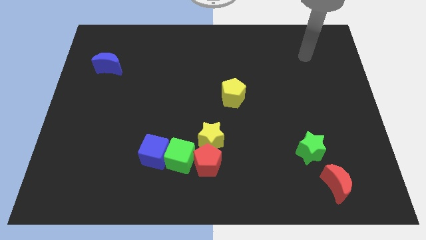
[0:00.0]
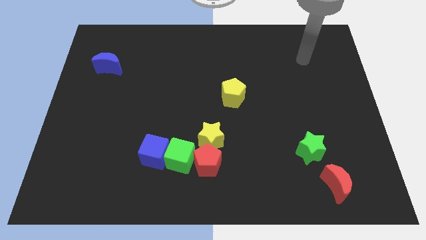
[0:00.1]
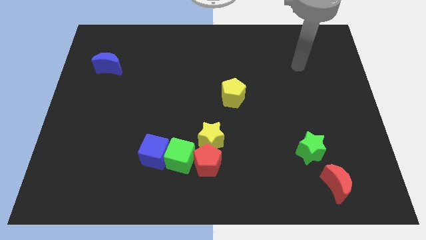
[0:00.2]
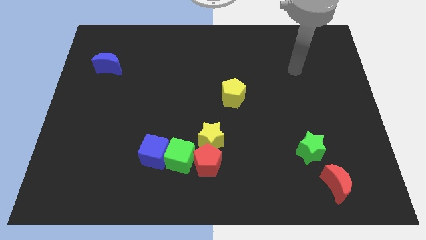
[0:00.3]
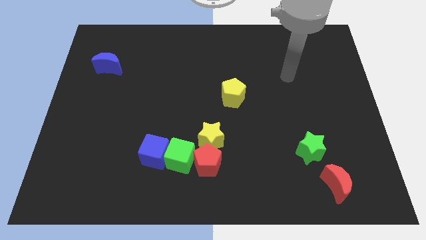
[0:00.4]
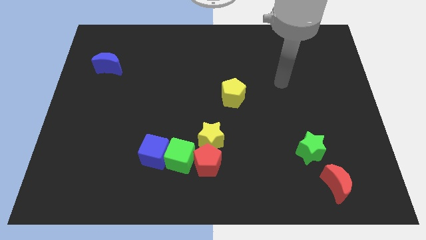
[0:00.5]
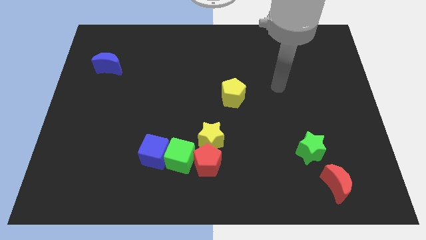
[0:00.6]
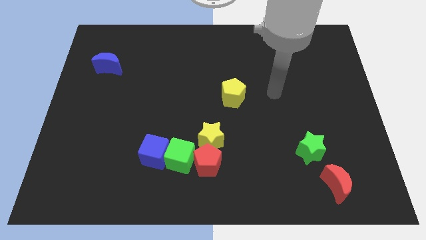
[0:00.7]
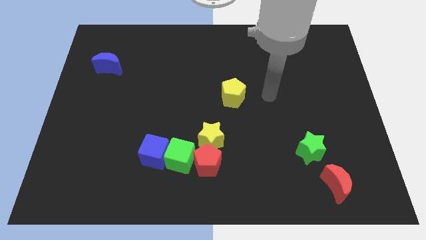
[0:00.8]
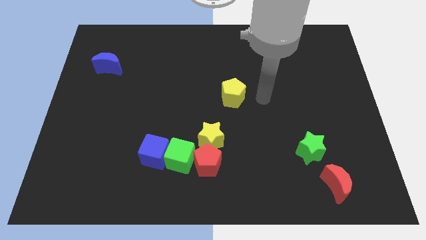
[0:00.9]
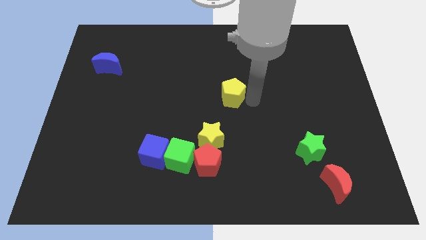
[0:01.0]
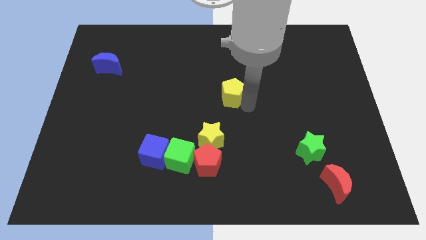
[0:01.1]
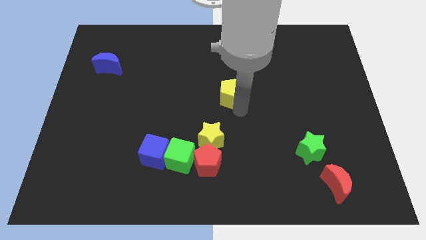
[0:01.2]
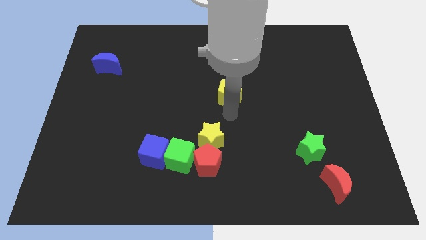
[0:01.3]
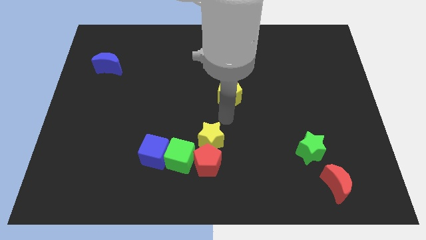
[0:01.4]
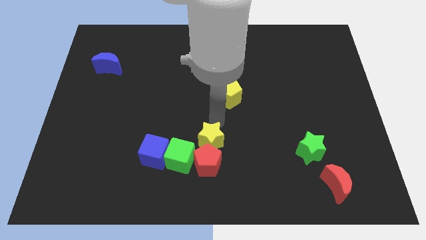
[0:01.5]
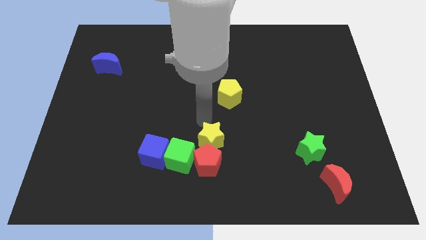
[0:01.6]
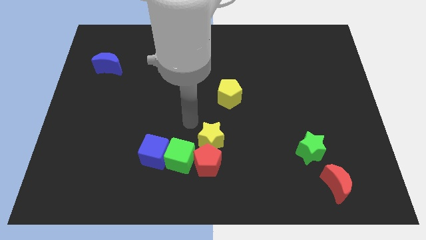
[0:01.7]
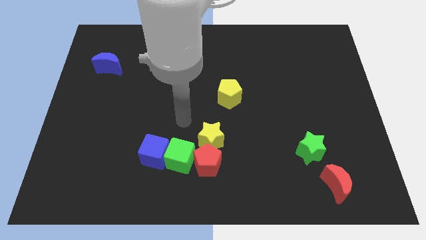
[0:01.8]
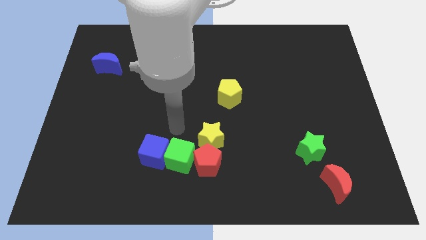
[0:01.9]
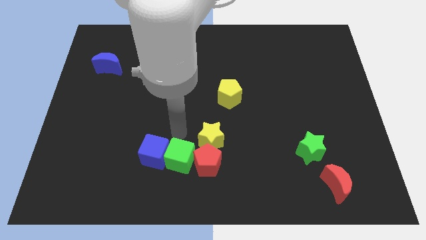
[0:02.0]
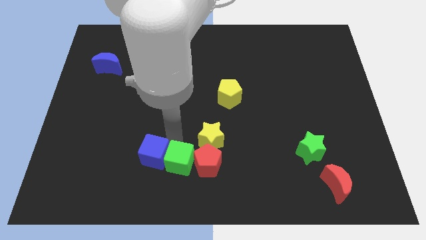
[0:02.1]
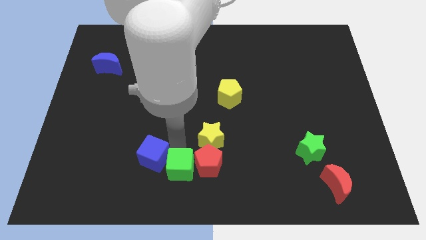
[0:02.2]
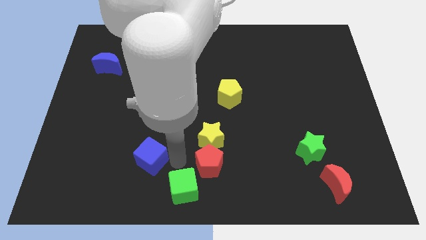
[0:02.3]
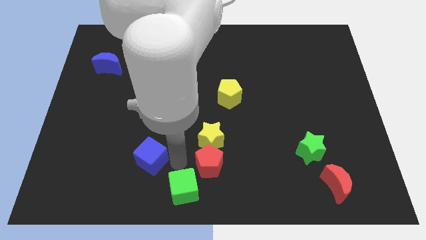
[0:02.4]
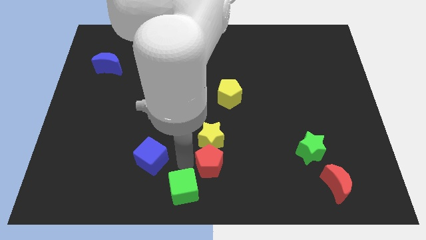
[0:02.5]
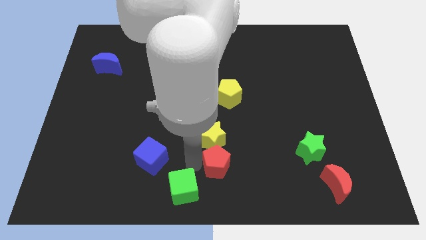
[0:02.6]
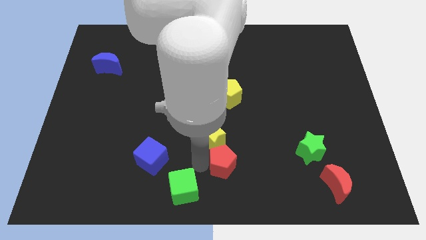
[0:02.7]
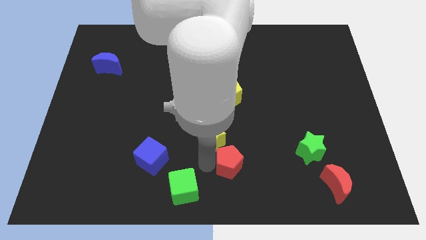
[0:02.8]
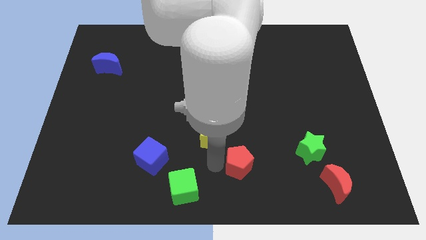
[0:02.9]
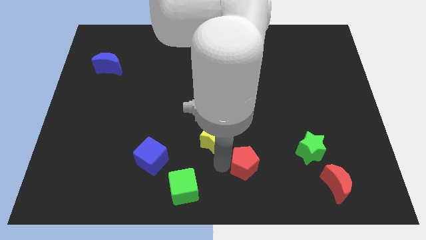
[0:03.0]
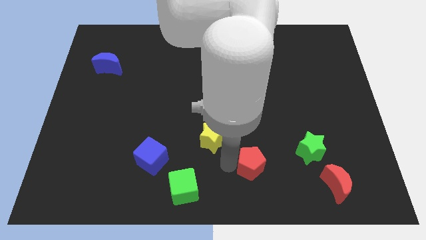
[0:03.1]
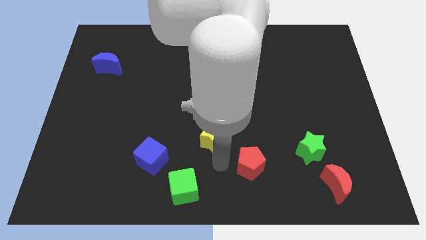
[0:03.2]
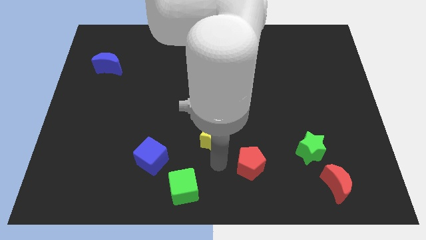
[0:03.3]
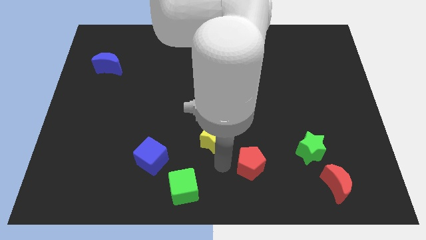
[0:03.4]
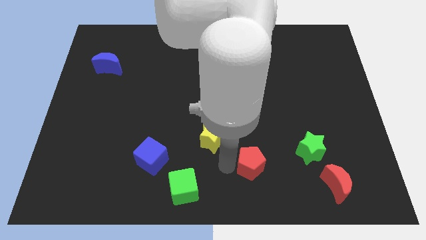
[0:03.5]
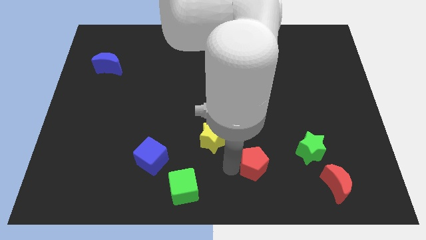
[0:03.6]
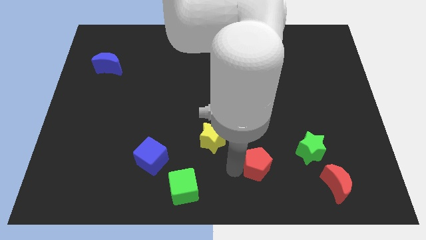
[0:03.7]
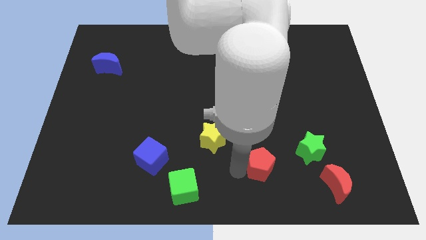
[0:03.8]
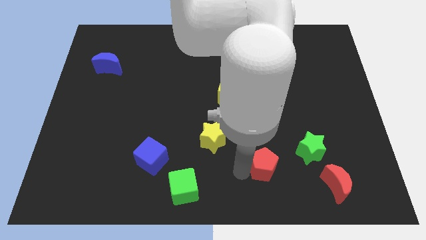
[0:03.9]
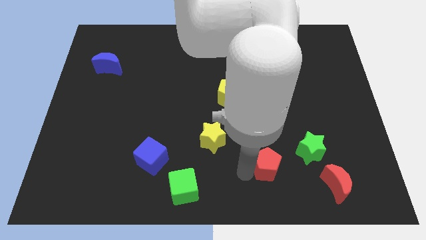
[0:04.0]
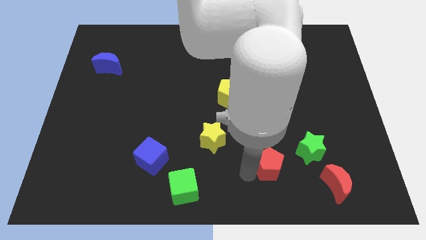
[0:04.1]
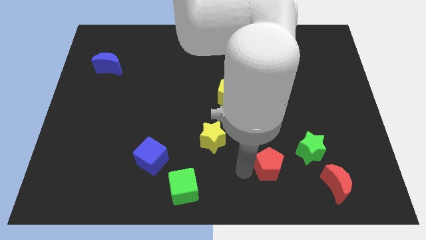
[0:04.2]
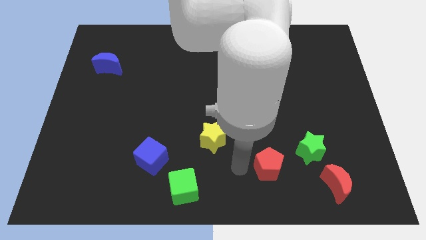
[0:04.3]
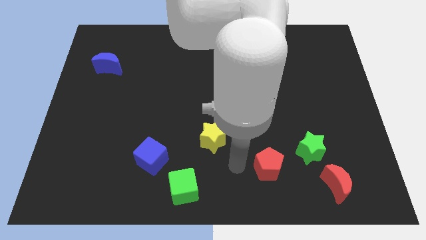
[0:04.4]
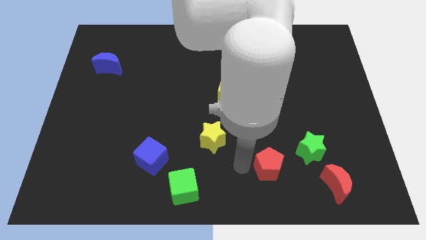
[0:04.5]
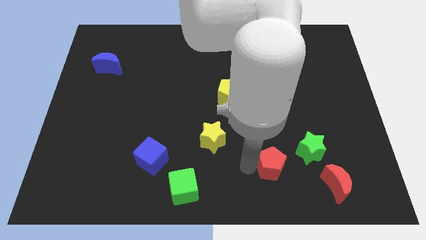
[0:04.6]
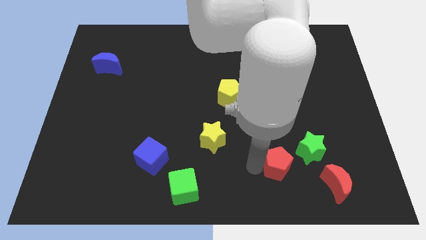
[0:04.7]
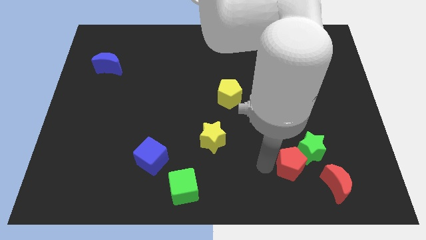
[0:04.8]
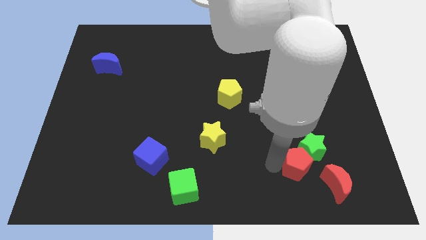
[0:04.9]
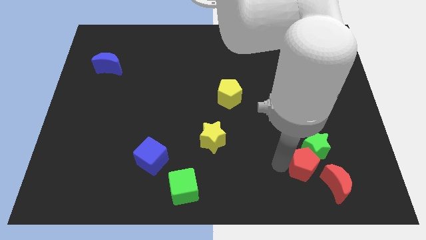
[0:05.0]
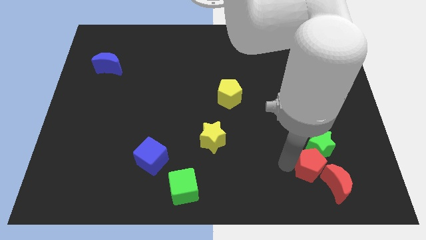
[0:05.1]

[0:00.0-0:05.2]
slide the red pentagon to the red moon

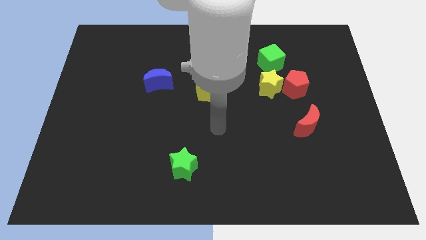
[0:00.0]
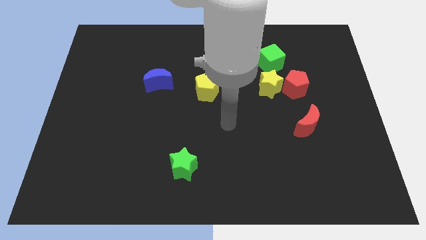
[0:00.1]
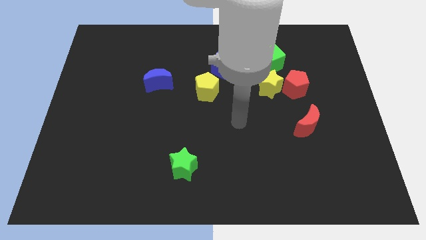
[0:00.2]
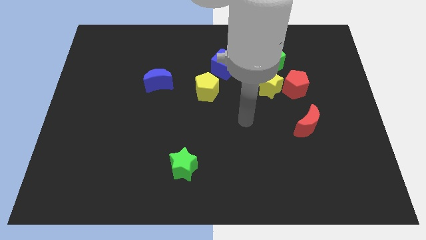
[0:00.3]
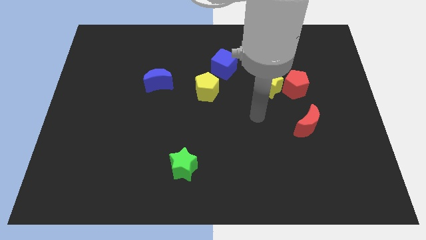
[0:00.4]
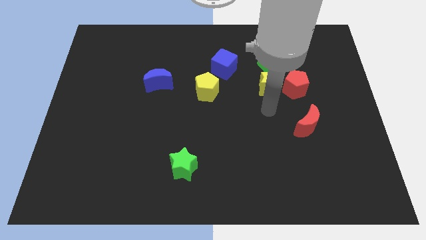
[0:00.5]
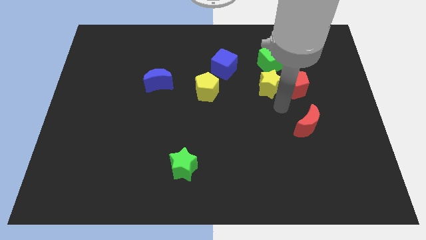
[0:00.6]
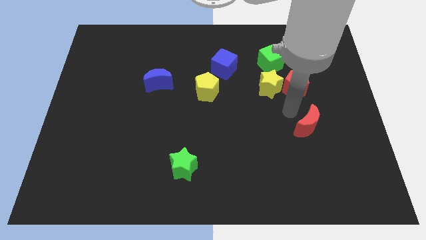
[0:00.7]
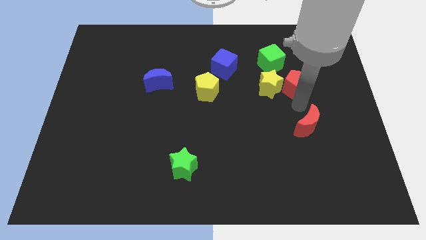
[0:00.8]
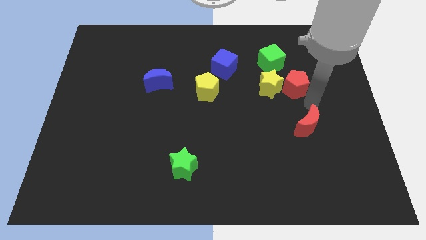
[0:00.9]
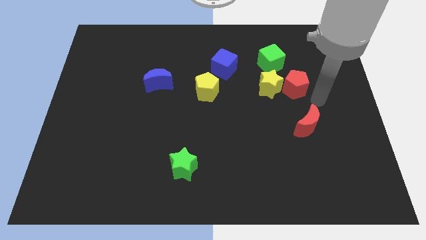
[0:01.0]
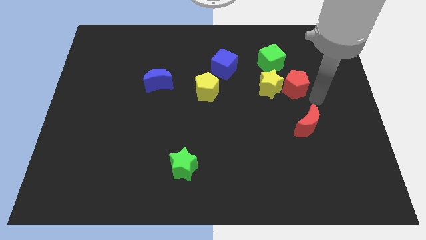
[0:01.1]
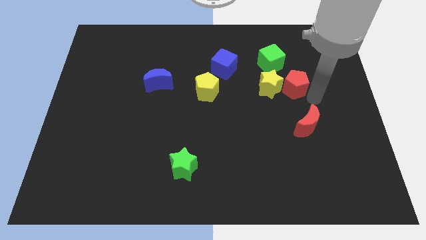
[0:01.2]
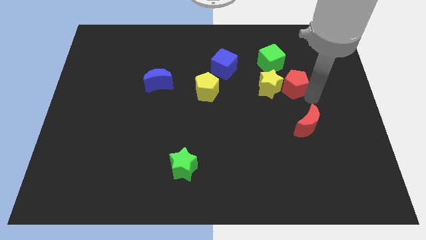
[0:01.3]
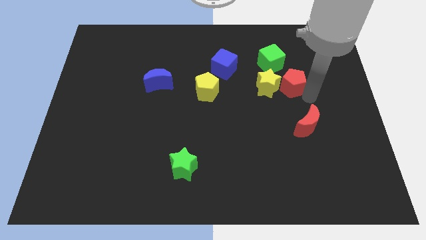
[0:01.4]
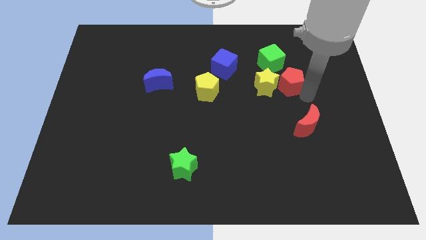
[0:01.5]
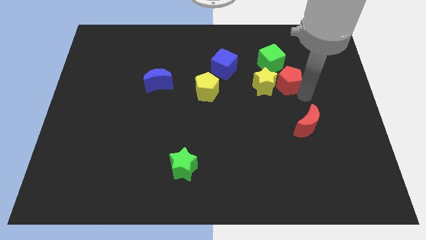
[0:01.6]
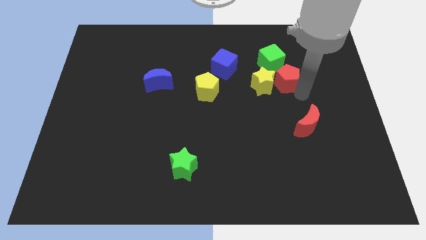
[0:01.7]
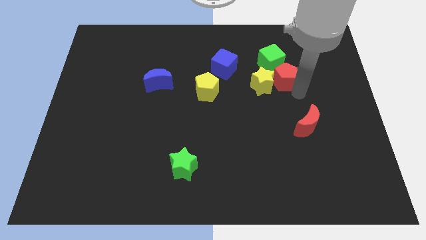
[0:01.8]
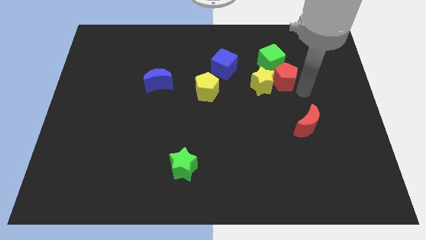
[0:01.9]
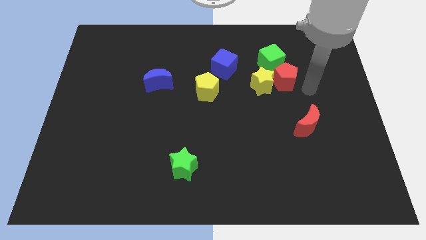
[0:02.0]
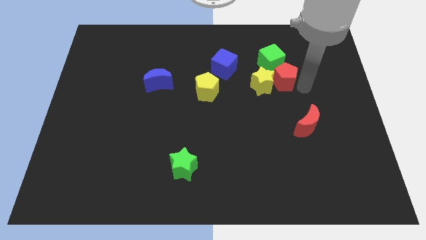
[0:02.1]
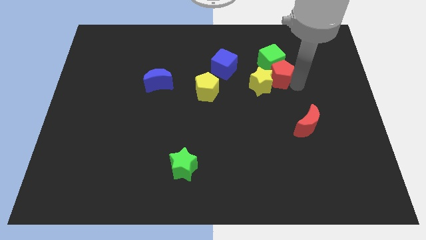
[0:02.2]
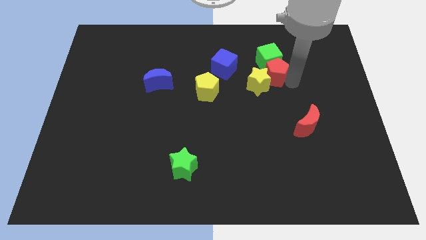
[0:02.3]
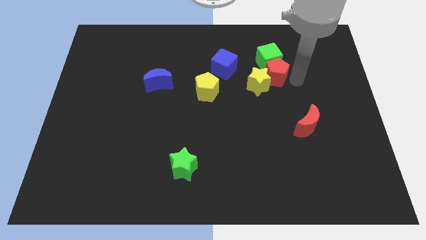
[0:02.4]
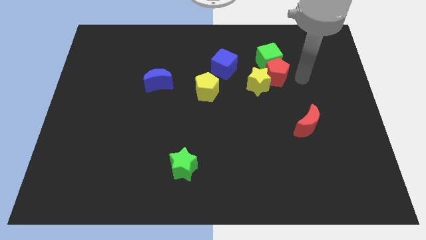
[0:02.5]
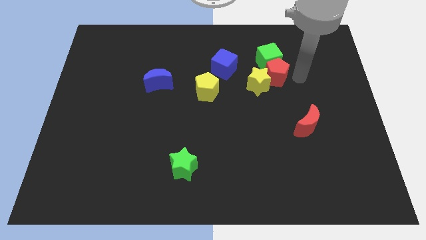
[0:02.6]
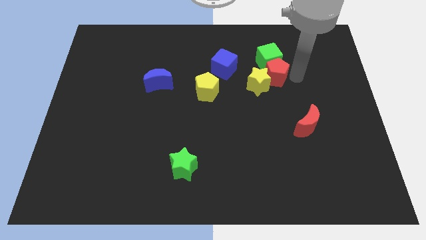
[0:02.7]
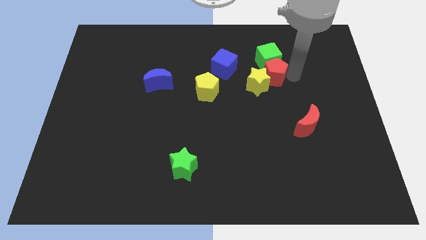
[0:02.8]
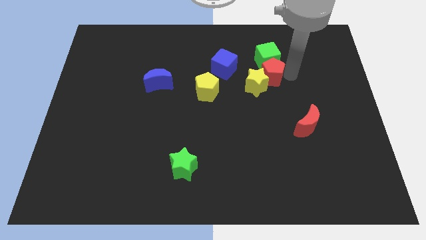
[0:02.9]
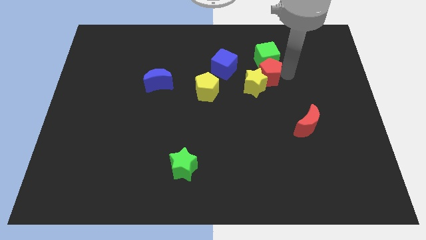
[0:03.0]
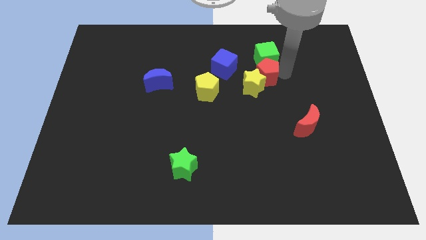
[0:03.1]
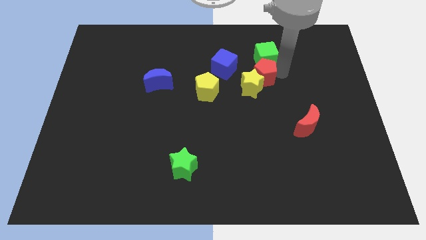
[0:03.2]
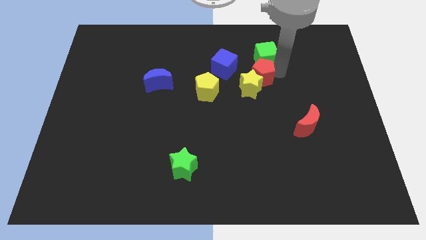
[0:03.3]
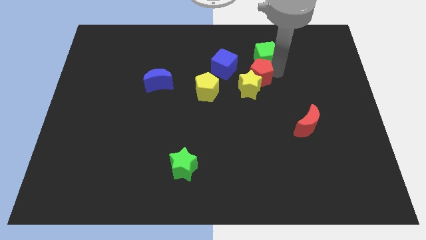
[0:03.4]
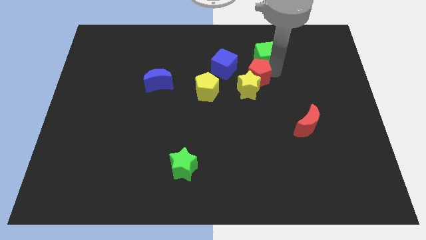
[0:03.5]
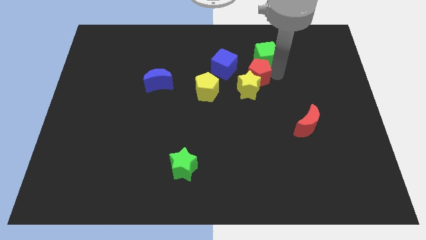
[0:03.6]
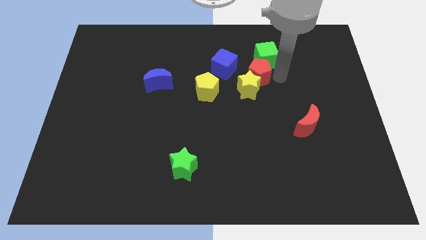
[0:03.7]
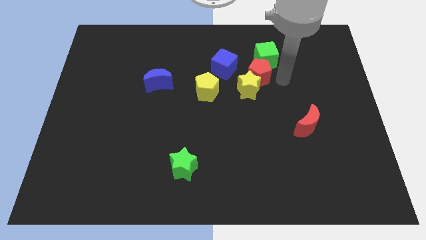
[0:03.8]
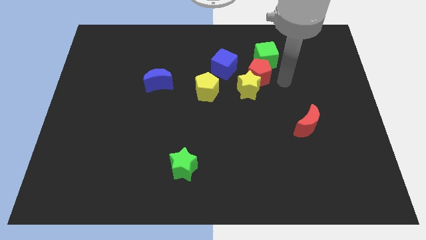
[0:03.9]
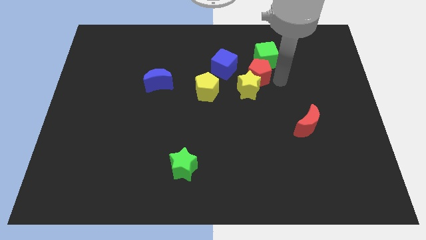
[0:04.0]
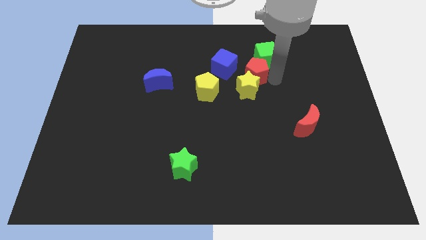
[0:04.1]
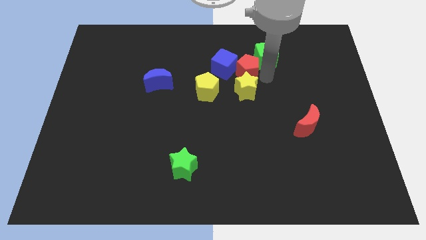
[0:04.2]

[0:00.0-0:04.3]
move the red pentagon next to the blue cube
